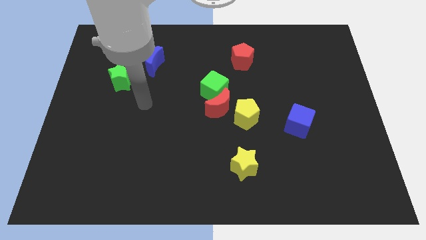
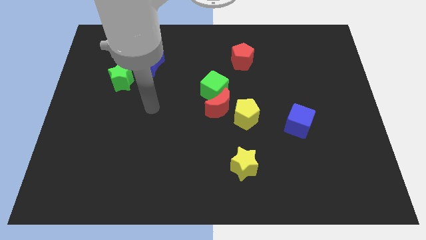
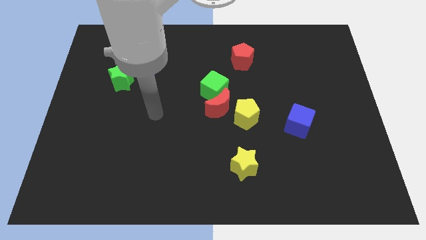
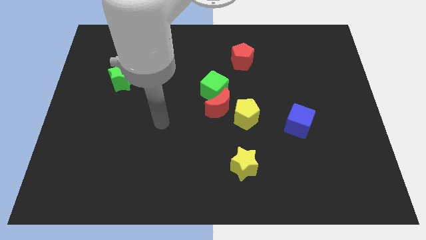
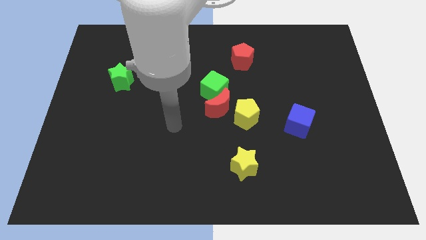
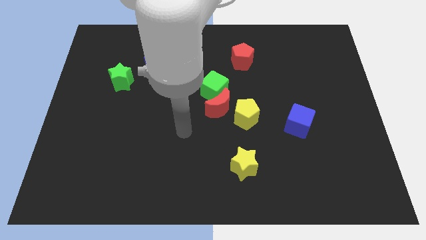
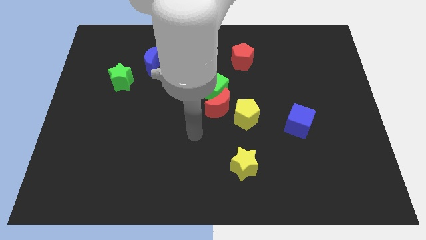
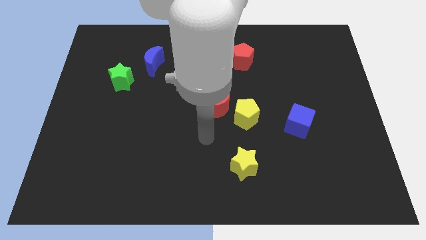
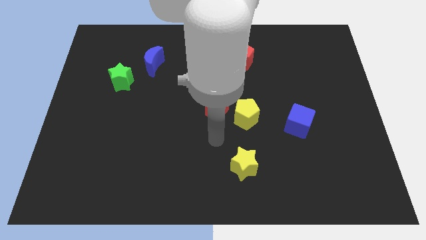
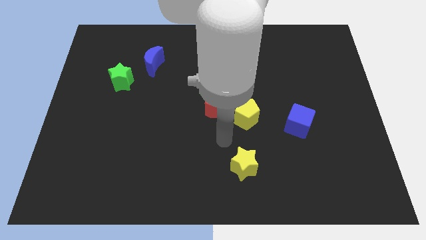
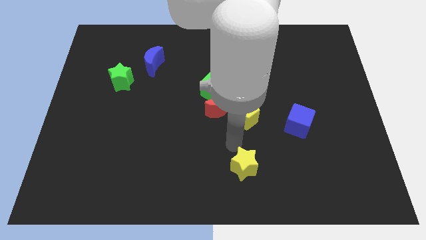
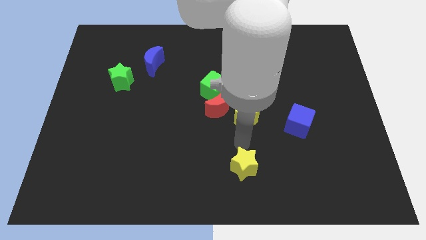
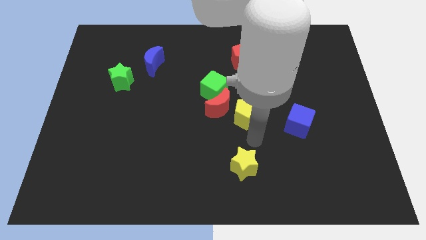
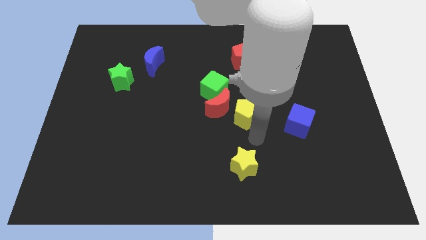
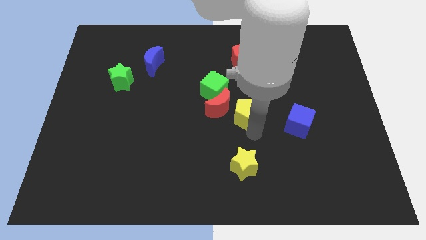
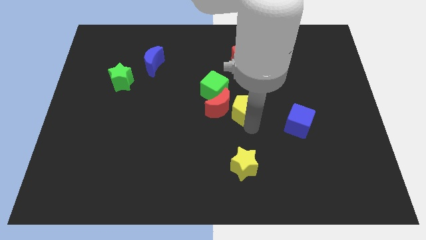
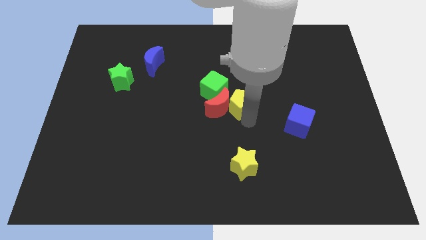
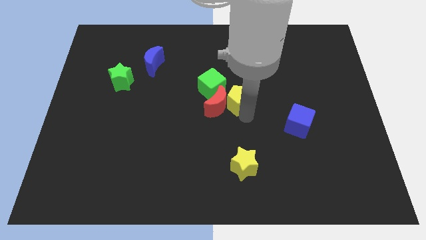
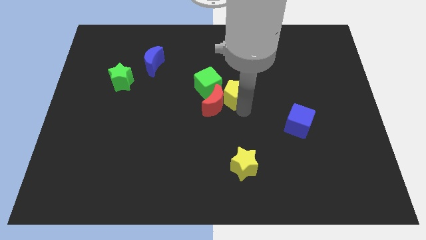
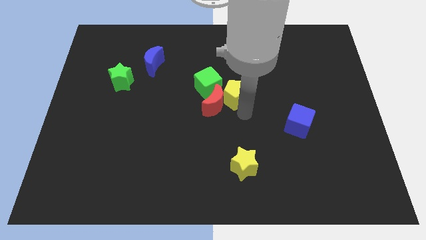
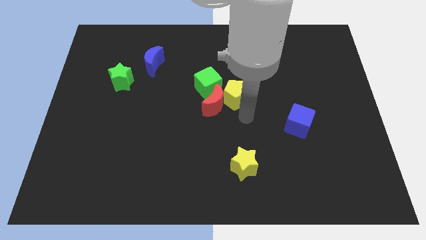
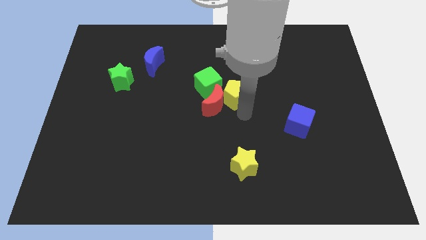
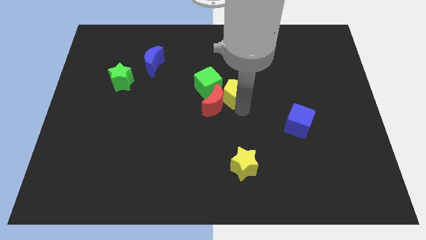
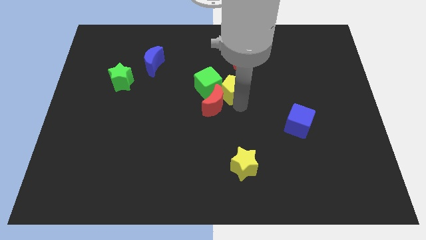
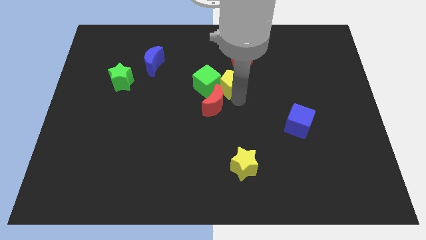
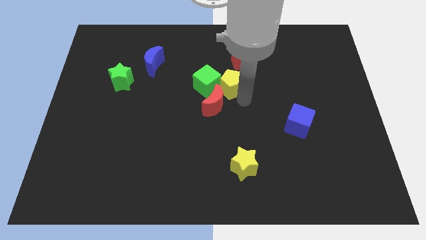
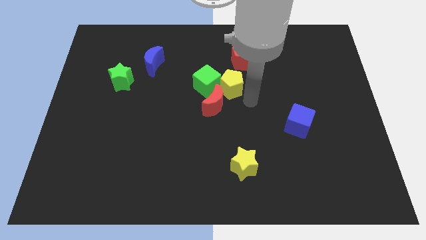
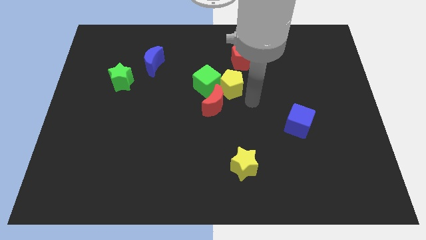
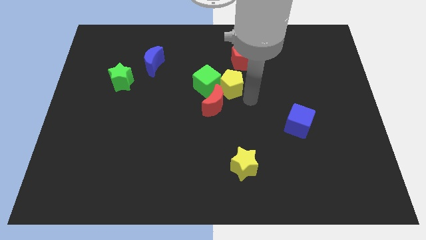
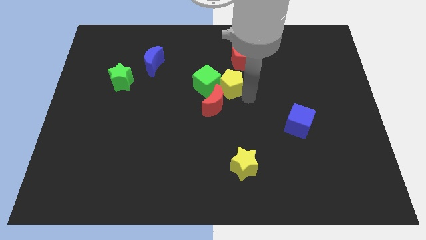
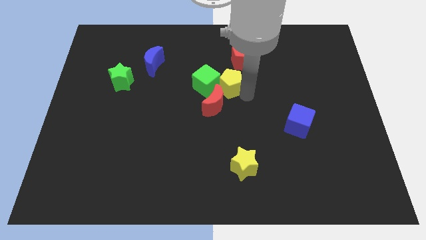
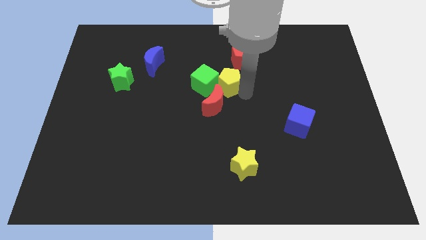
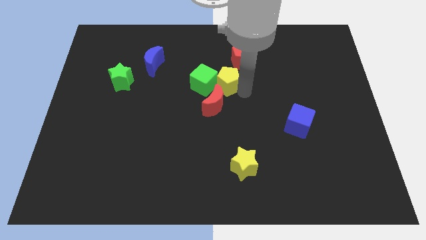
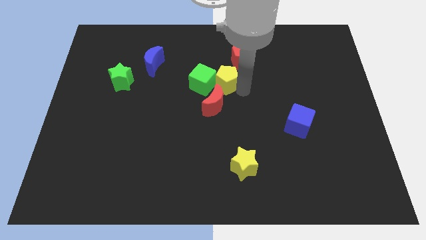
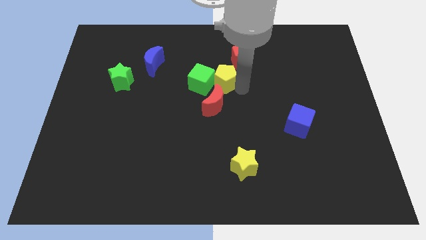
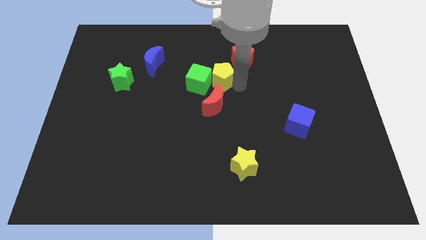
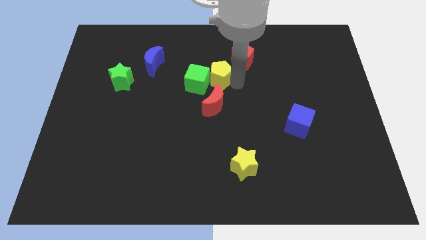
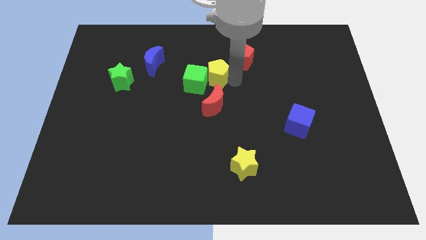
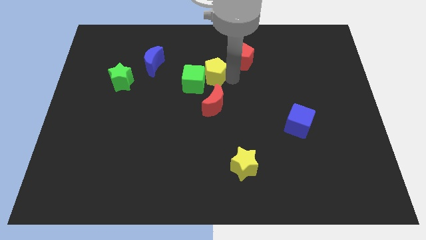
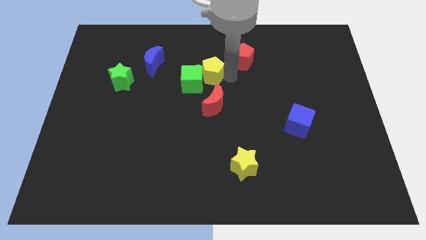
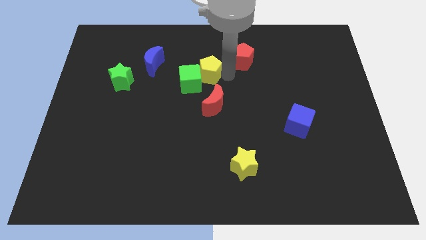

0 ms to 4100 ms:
move the yellow pentagon to the right of the blue moon

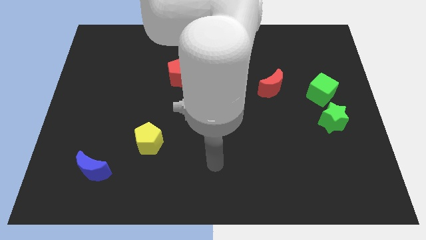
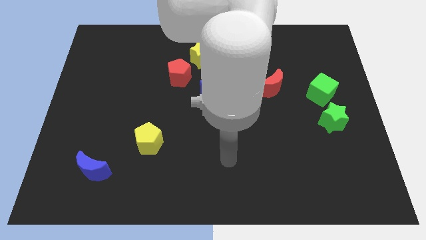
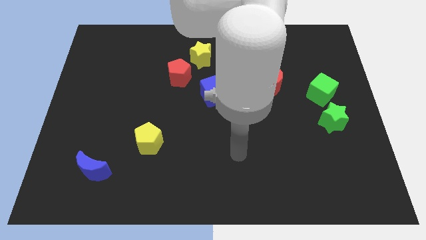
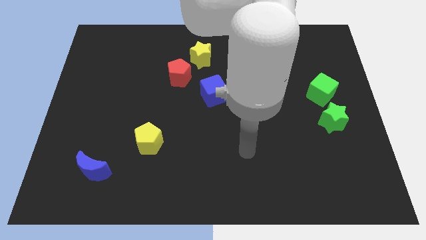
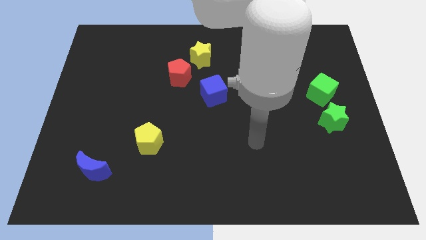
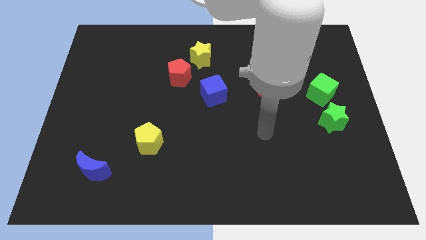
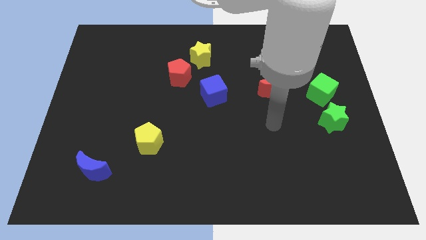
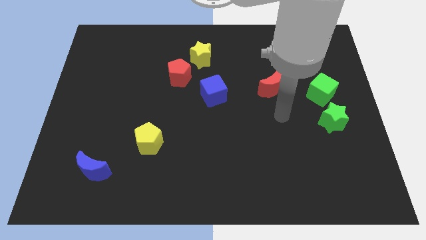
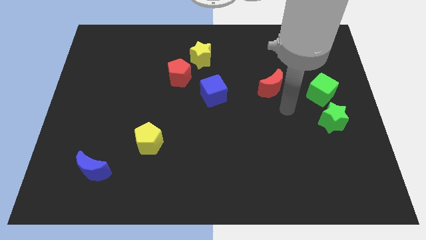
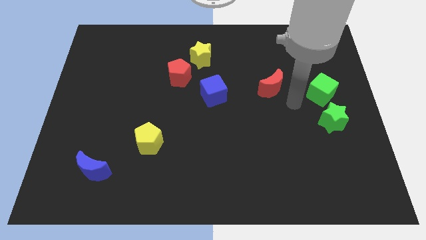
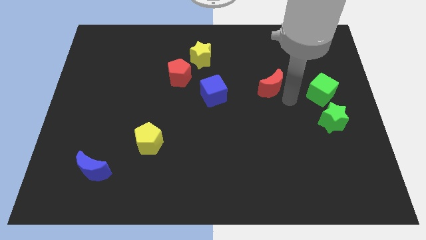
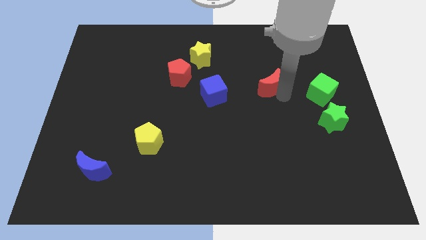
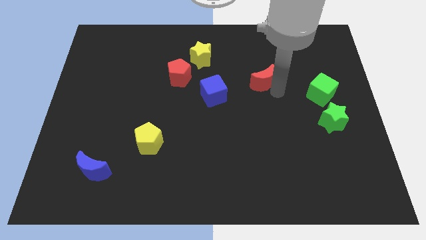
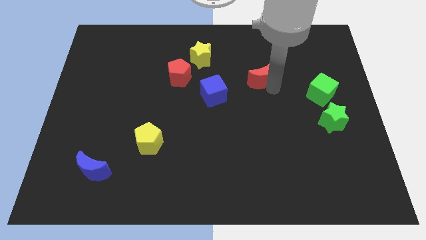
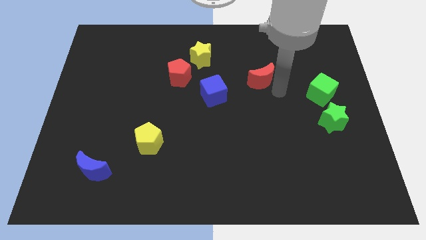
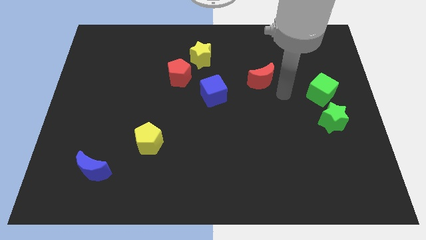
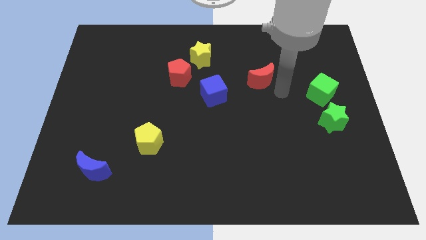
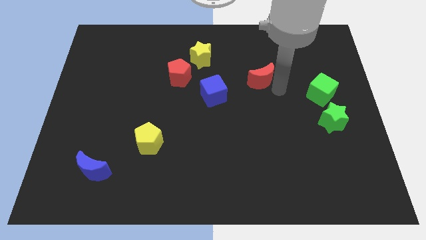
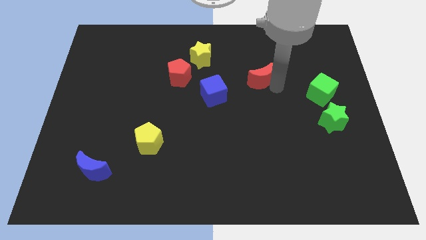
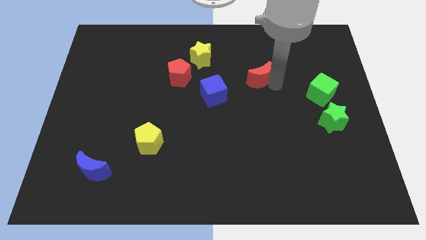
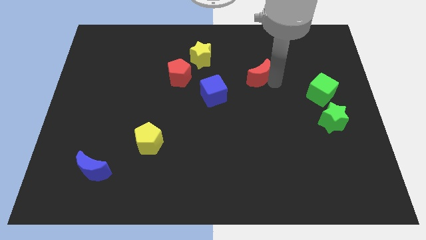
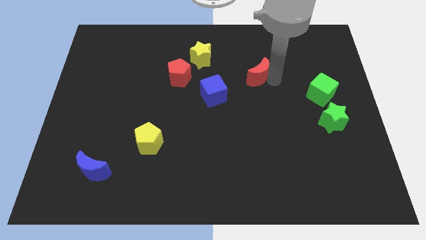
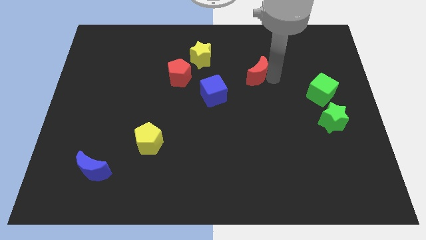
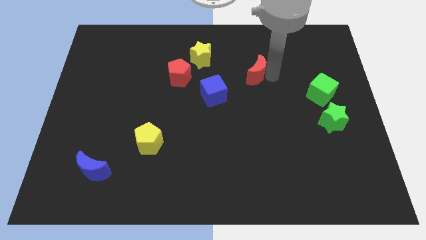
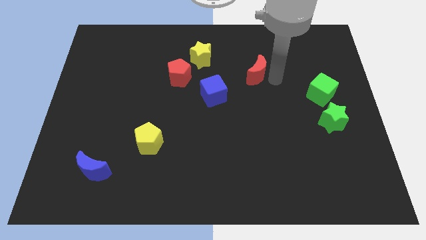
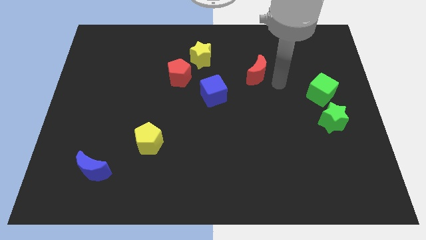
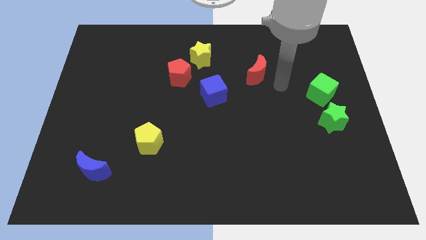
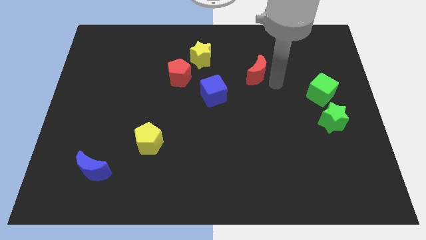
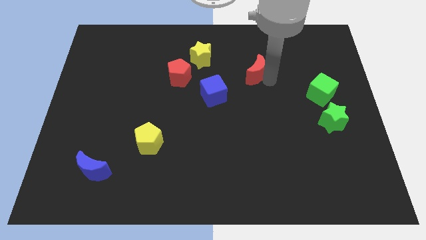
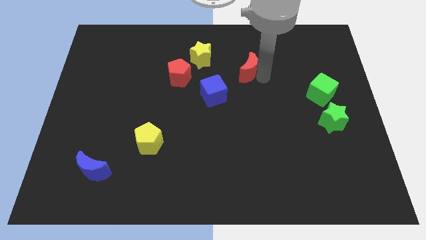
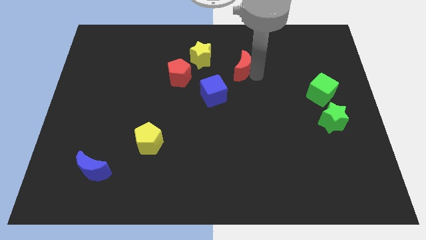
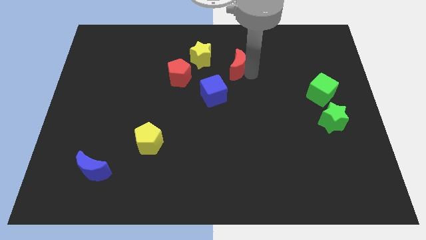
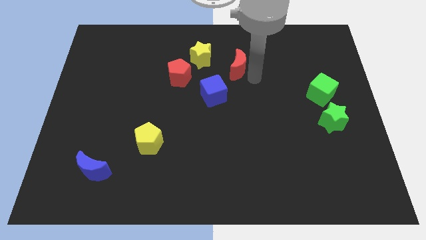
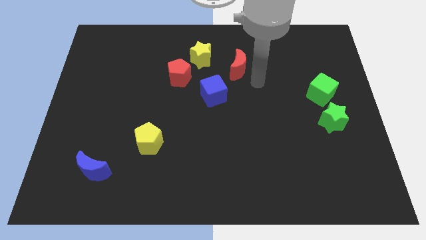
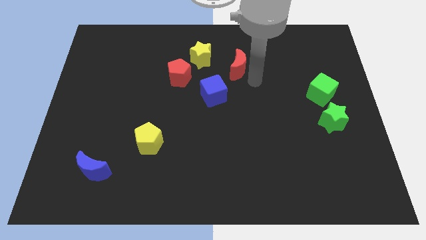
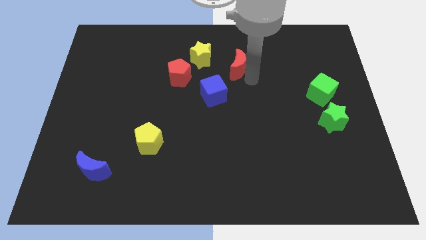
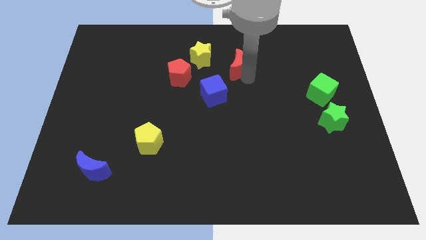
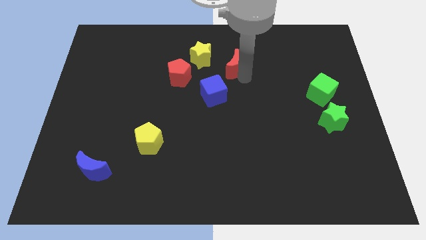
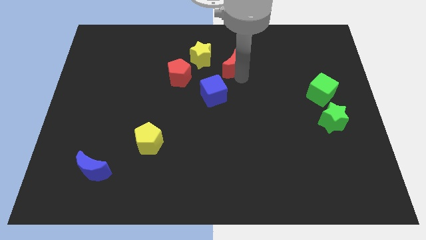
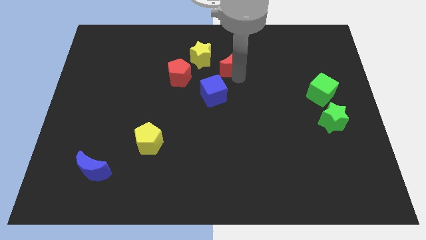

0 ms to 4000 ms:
slide the red moon to the top of the blue cube
